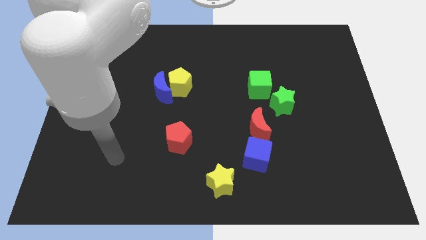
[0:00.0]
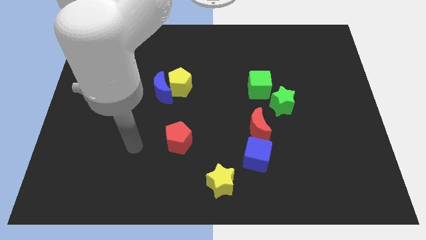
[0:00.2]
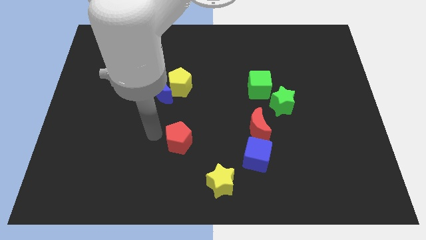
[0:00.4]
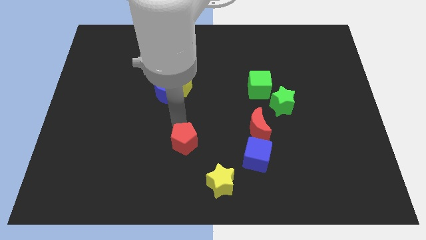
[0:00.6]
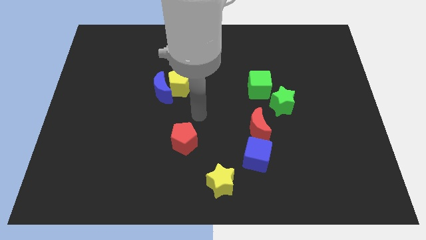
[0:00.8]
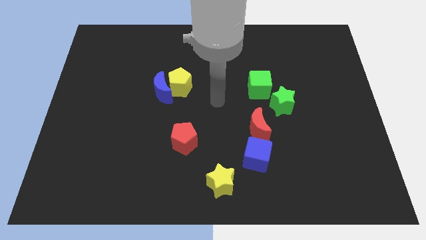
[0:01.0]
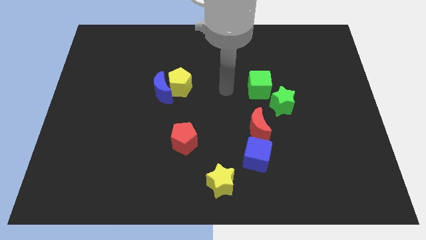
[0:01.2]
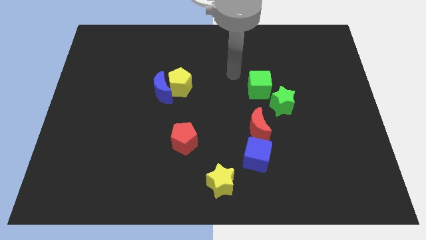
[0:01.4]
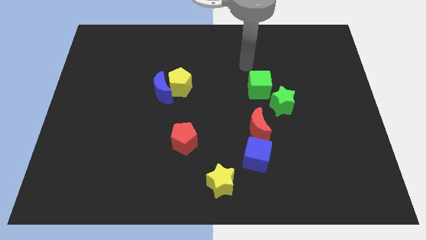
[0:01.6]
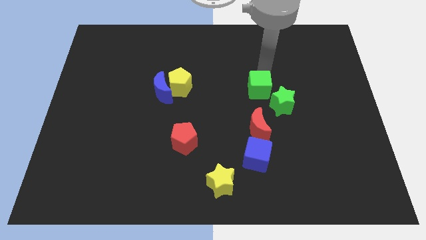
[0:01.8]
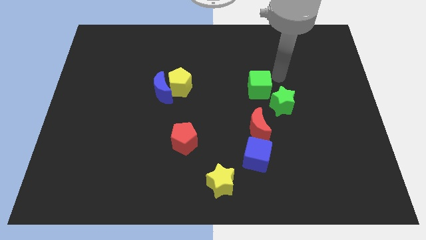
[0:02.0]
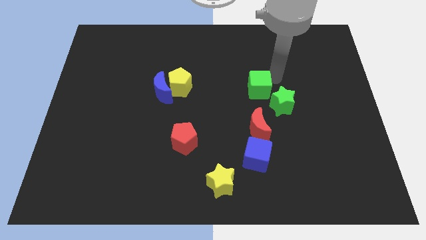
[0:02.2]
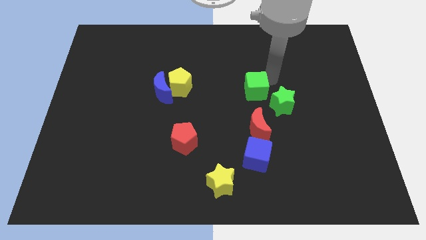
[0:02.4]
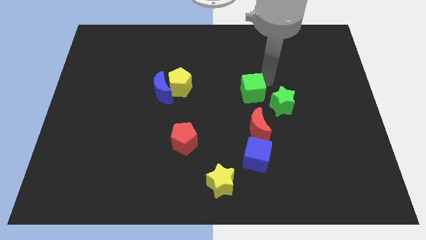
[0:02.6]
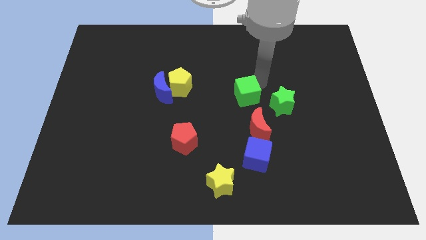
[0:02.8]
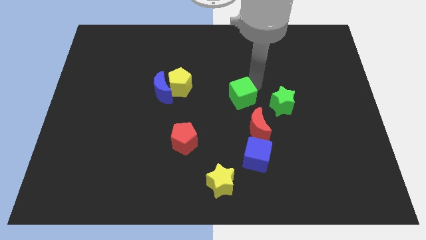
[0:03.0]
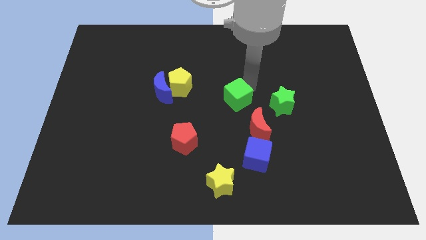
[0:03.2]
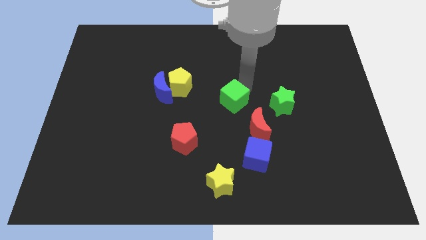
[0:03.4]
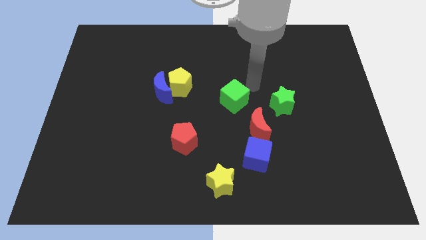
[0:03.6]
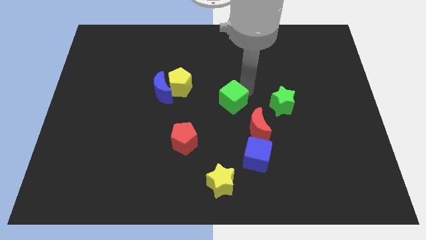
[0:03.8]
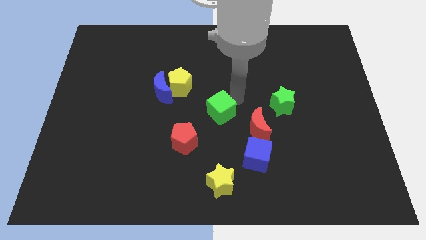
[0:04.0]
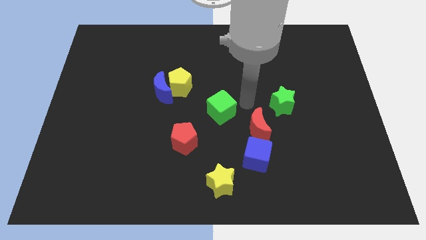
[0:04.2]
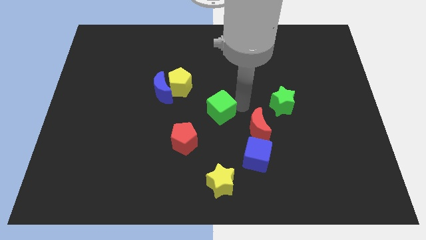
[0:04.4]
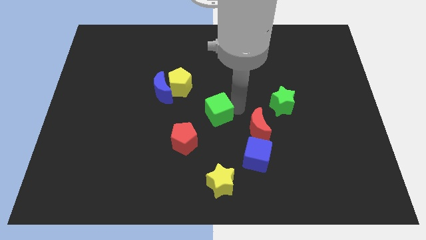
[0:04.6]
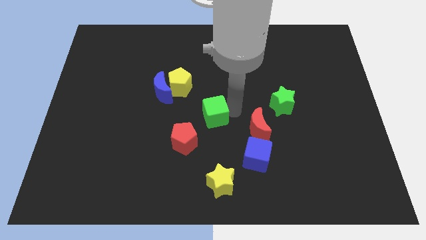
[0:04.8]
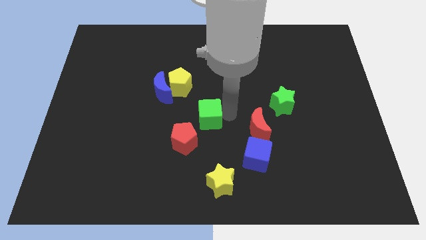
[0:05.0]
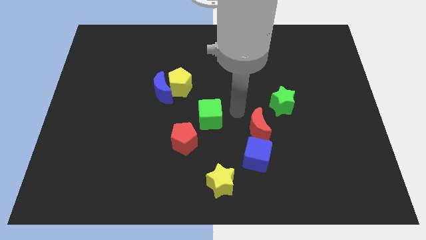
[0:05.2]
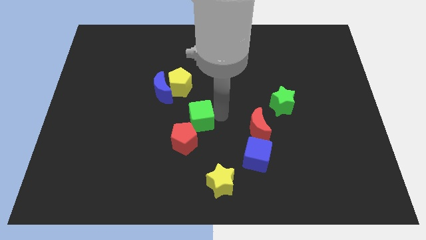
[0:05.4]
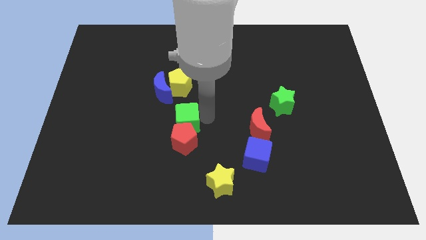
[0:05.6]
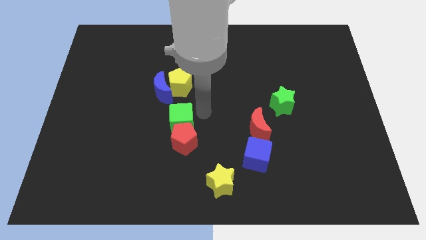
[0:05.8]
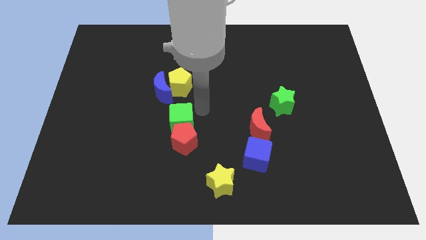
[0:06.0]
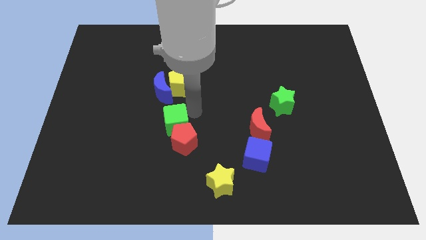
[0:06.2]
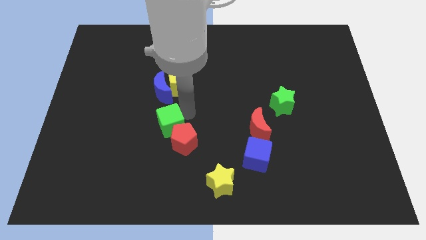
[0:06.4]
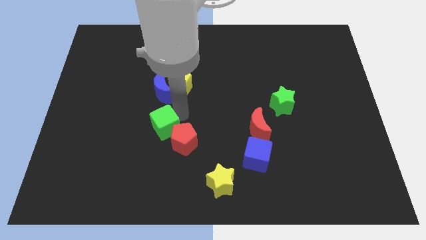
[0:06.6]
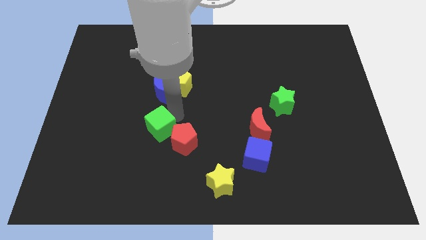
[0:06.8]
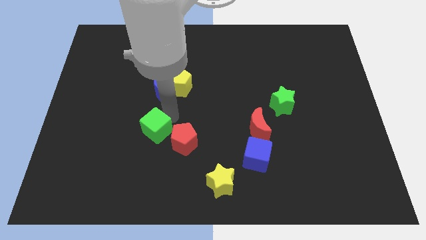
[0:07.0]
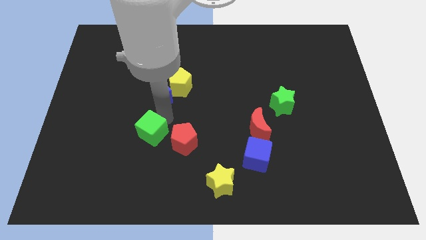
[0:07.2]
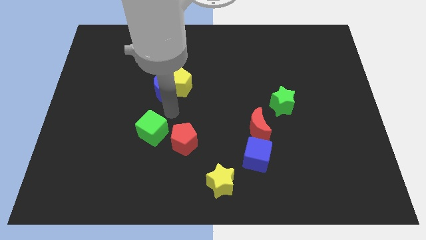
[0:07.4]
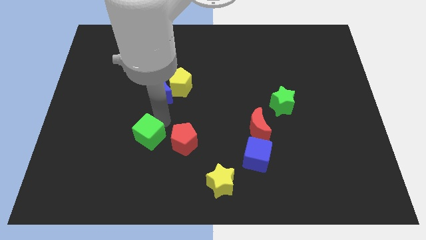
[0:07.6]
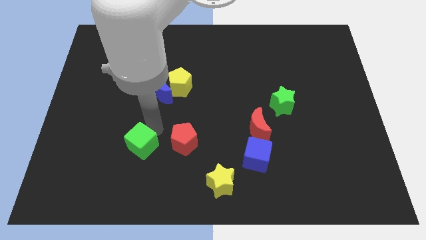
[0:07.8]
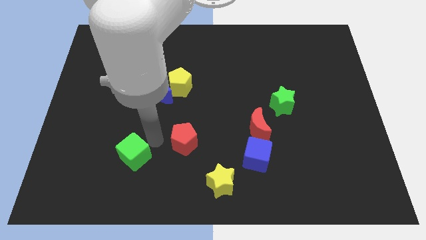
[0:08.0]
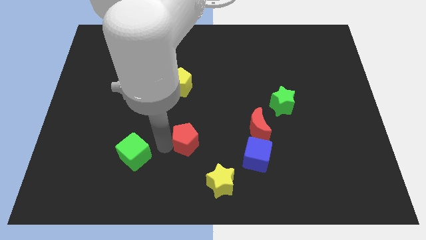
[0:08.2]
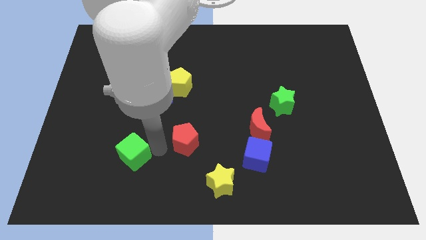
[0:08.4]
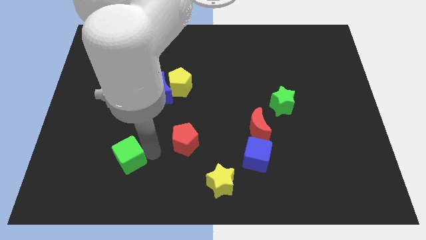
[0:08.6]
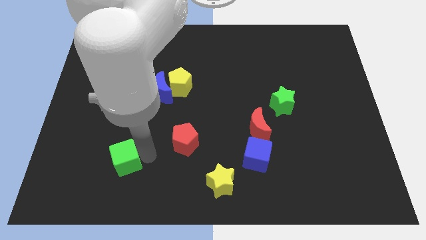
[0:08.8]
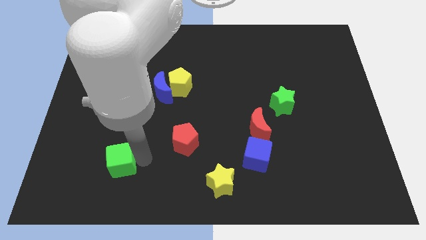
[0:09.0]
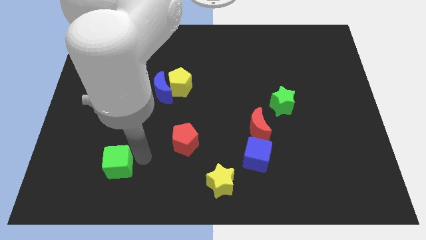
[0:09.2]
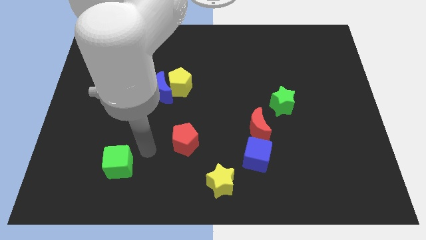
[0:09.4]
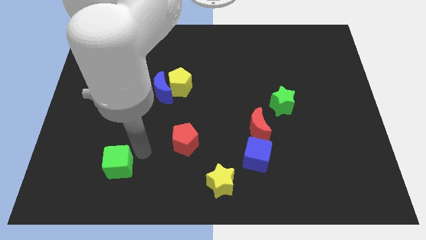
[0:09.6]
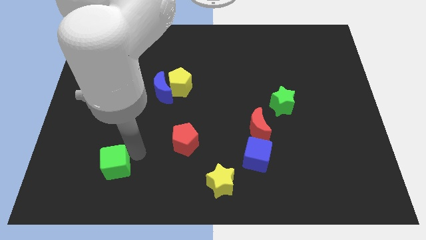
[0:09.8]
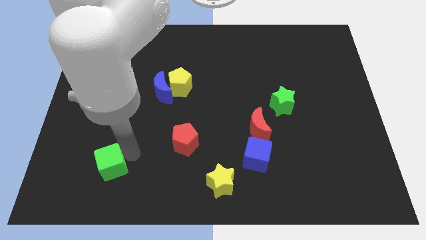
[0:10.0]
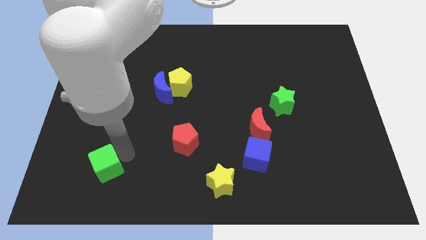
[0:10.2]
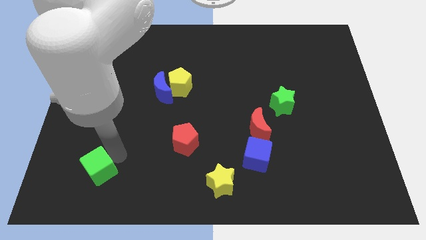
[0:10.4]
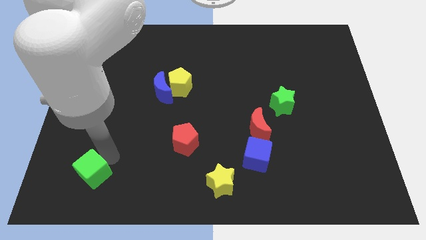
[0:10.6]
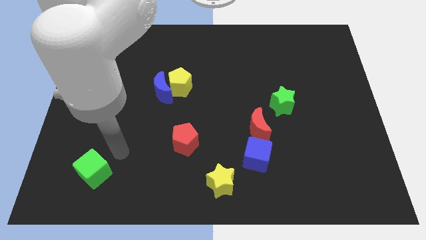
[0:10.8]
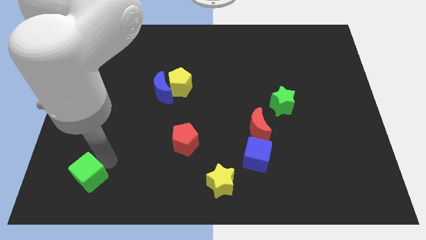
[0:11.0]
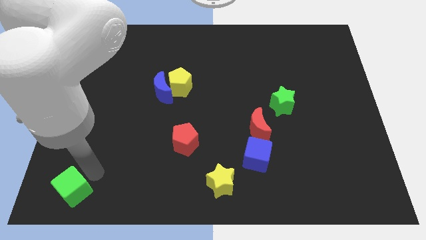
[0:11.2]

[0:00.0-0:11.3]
move the green cube to the bottom left

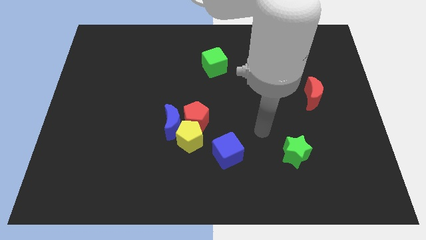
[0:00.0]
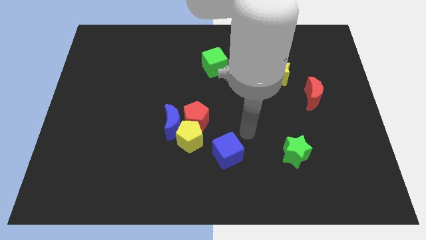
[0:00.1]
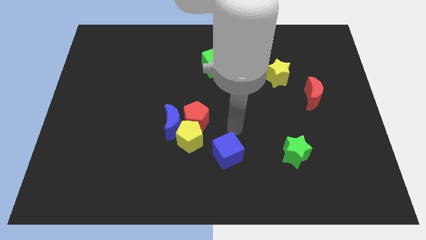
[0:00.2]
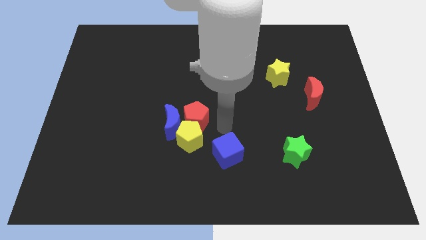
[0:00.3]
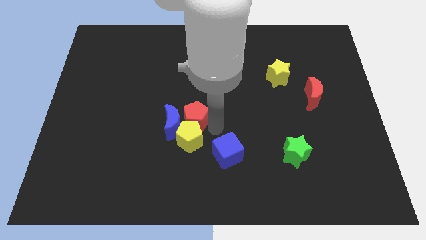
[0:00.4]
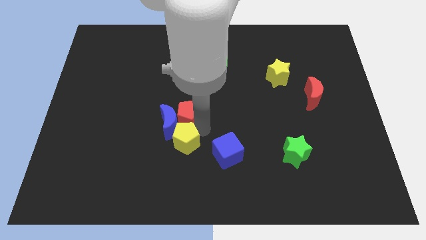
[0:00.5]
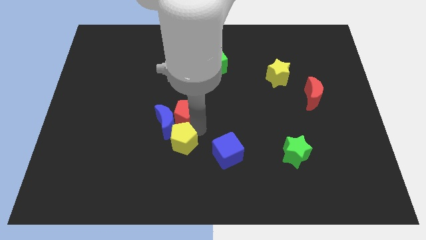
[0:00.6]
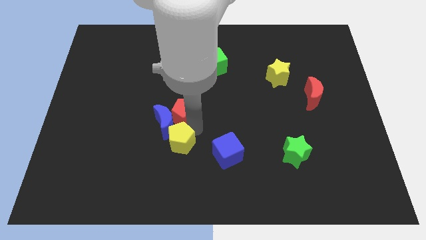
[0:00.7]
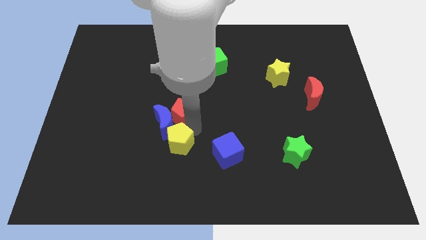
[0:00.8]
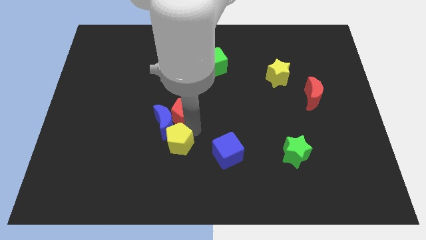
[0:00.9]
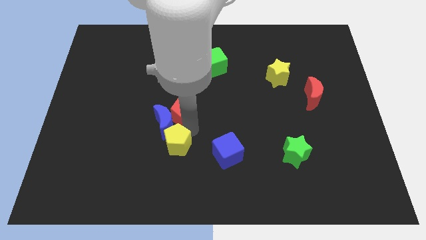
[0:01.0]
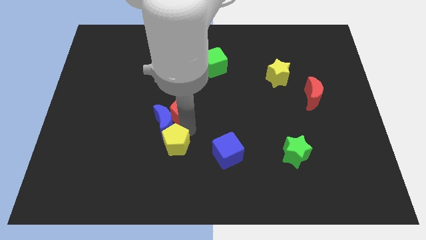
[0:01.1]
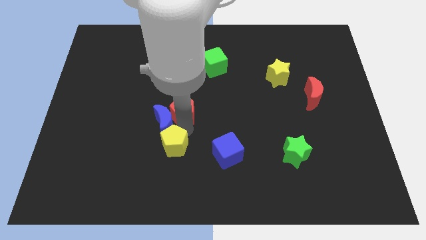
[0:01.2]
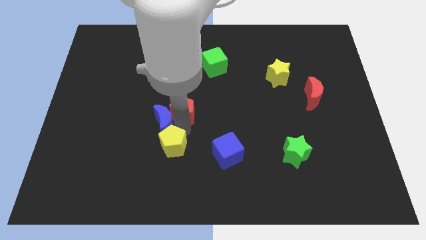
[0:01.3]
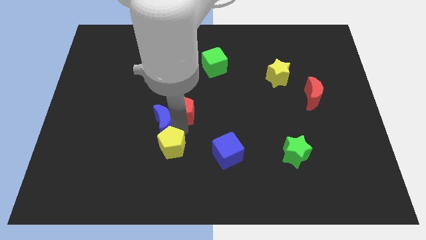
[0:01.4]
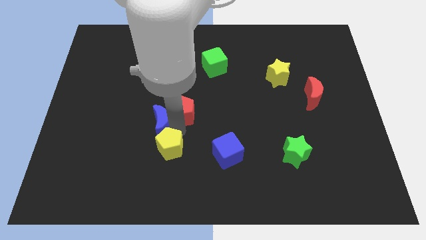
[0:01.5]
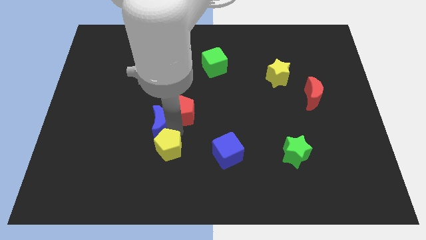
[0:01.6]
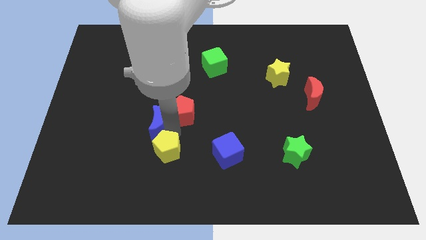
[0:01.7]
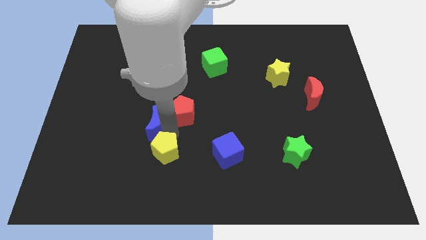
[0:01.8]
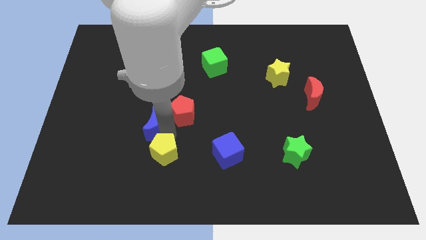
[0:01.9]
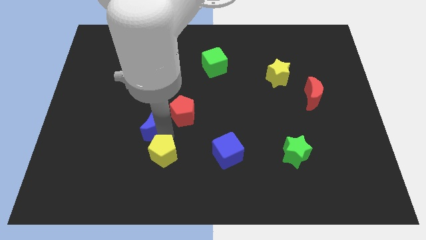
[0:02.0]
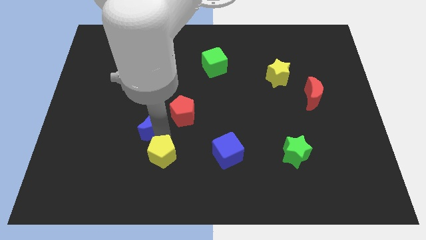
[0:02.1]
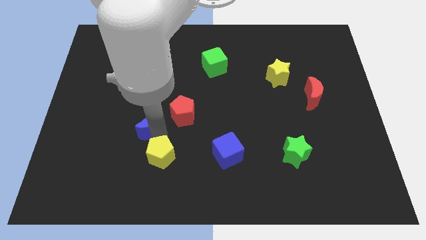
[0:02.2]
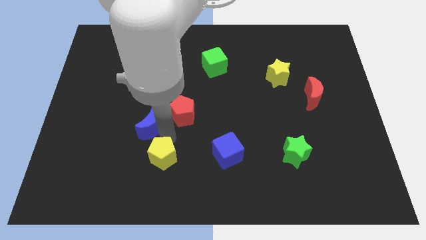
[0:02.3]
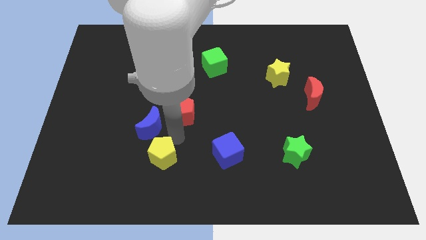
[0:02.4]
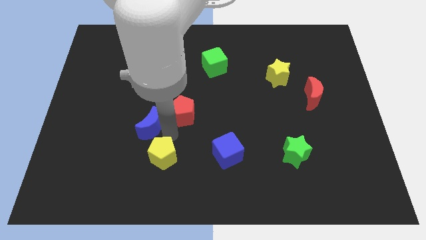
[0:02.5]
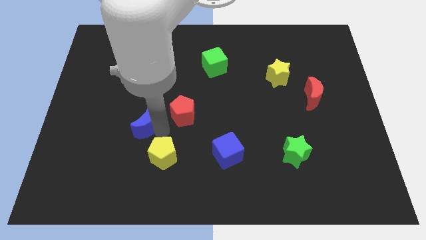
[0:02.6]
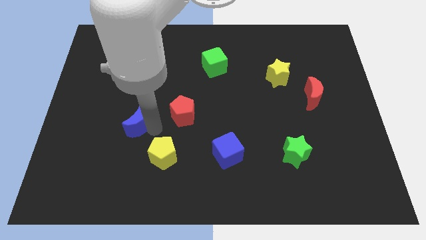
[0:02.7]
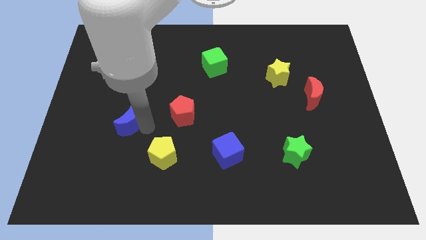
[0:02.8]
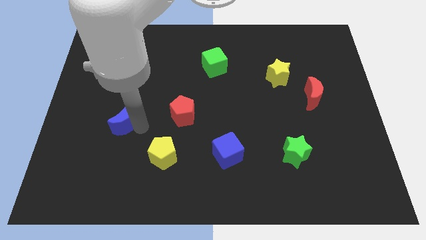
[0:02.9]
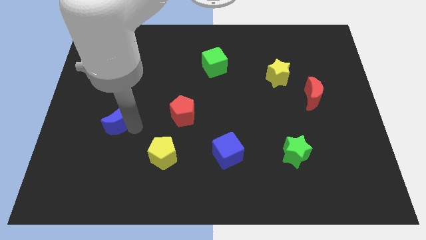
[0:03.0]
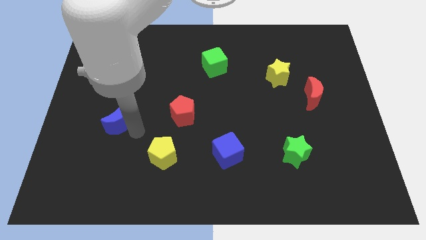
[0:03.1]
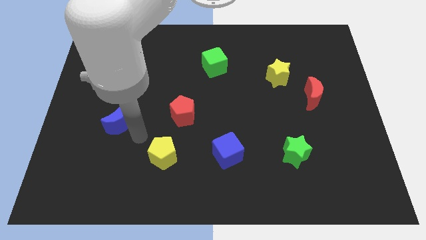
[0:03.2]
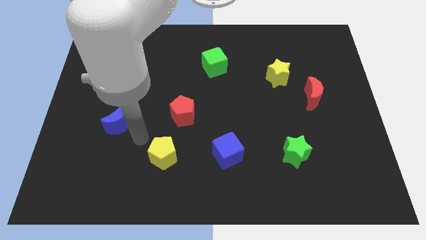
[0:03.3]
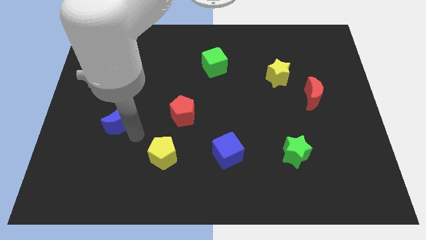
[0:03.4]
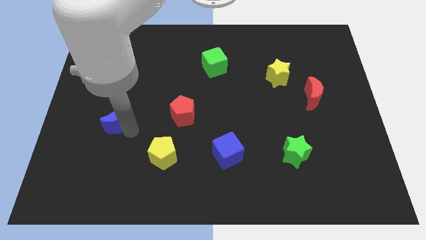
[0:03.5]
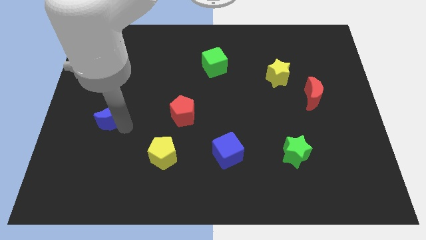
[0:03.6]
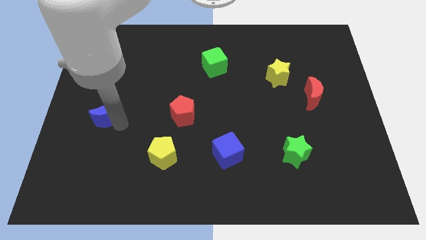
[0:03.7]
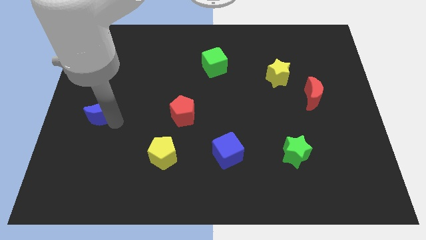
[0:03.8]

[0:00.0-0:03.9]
put the blue moon to the center left
